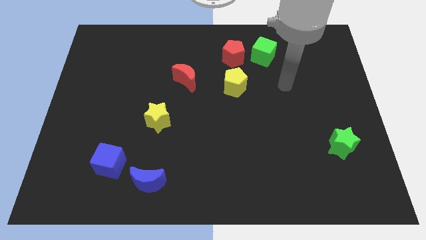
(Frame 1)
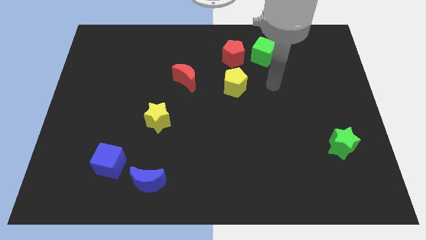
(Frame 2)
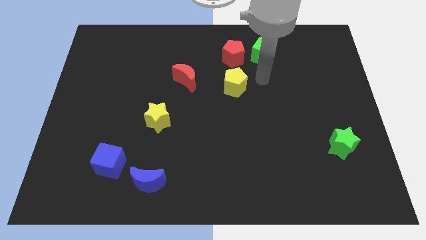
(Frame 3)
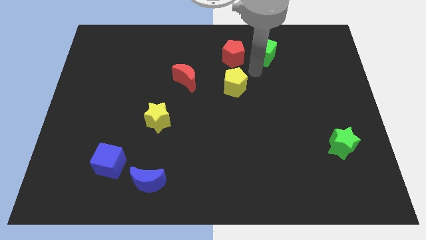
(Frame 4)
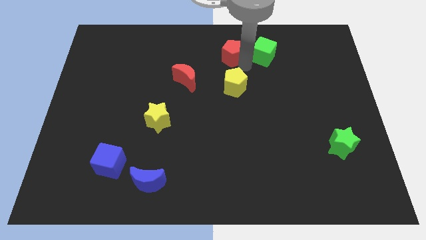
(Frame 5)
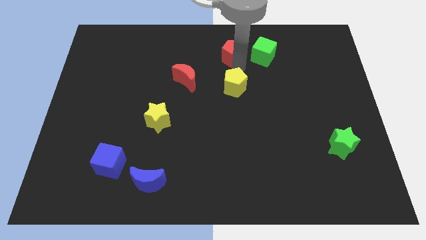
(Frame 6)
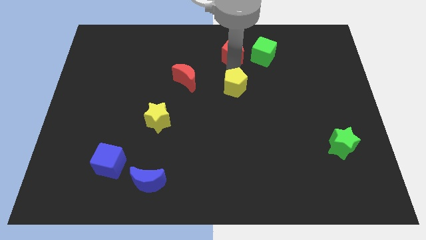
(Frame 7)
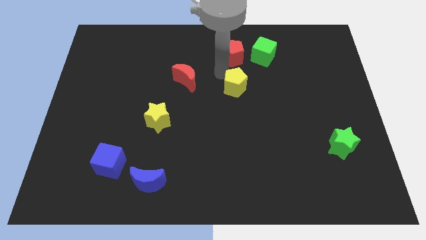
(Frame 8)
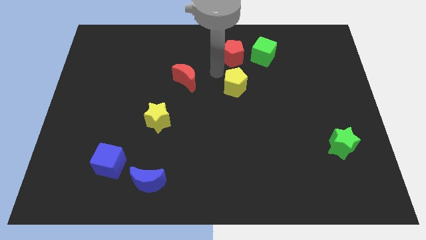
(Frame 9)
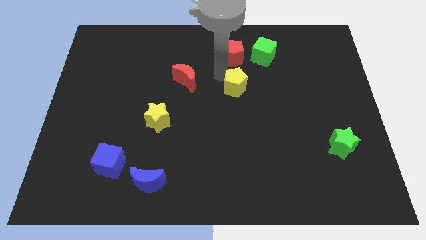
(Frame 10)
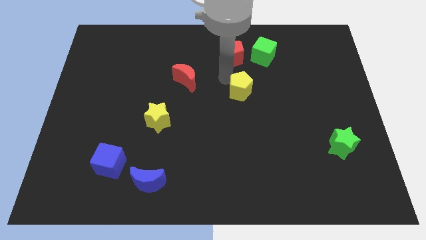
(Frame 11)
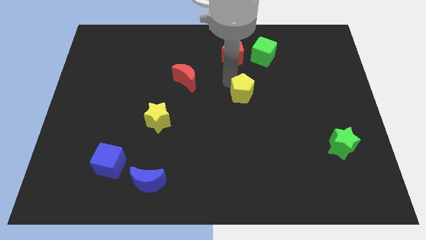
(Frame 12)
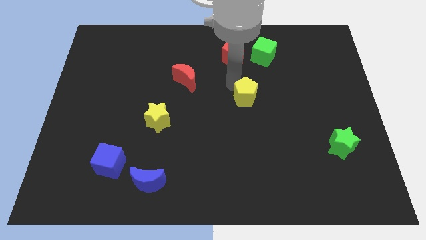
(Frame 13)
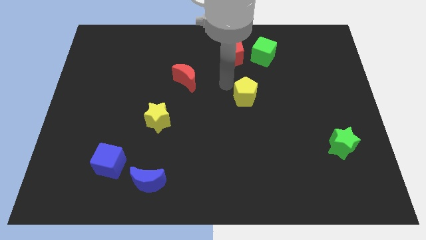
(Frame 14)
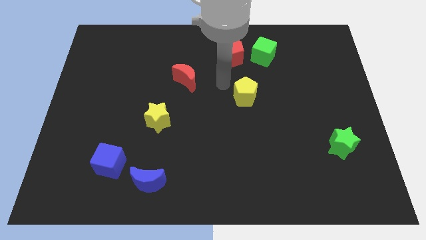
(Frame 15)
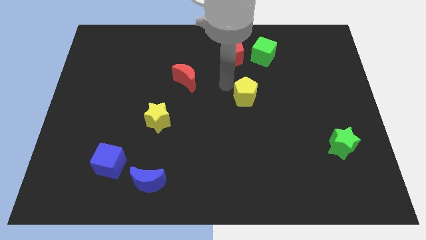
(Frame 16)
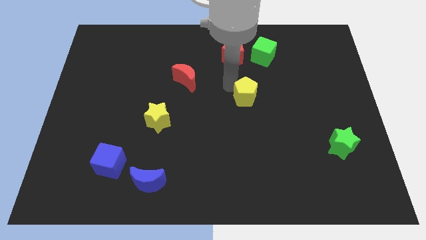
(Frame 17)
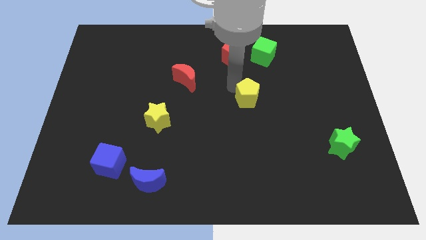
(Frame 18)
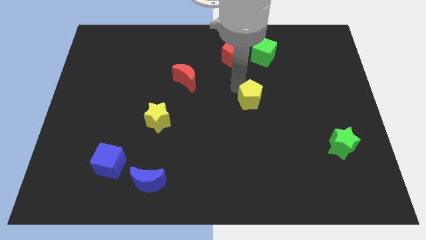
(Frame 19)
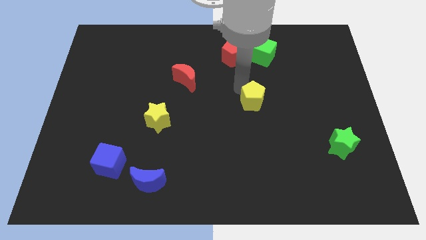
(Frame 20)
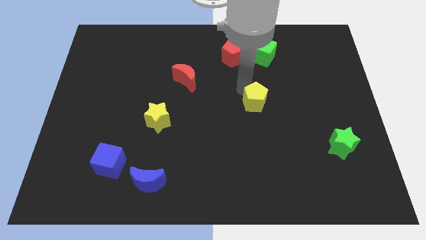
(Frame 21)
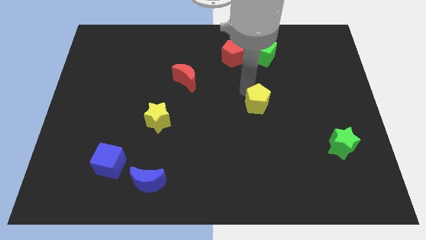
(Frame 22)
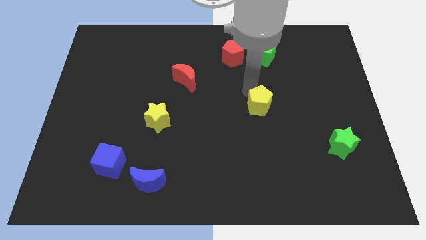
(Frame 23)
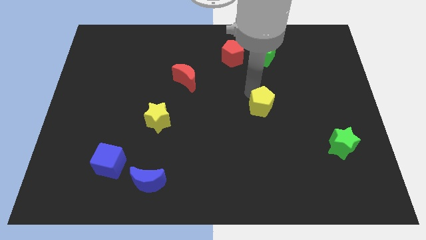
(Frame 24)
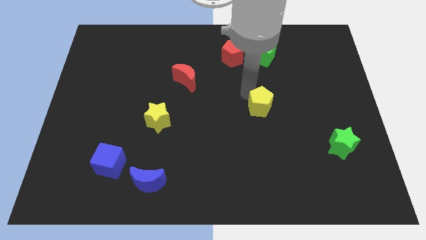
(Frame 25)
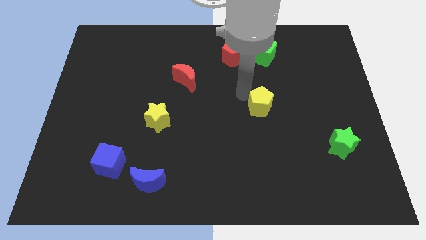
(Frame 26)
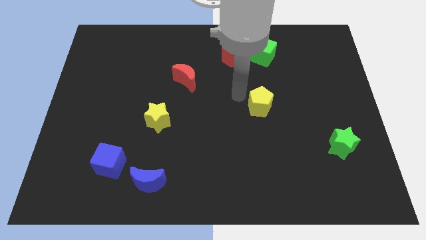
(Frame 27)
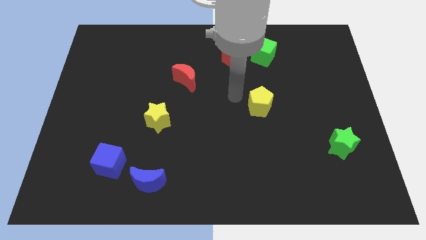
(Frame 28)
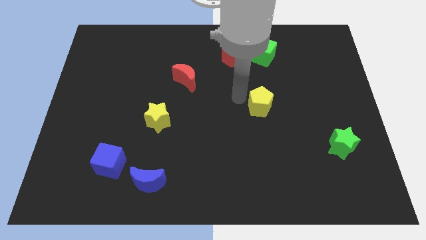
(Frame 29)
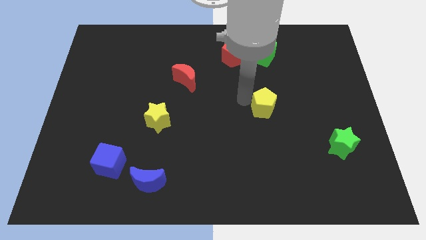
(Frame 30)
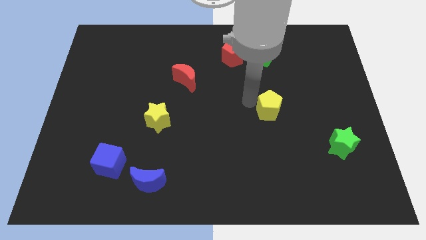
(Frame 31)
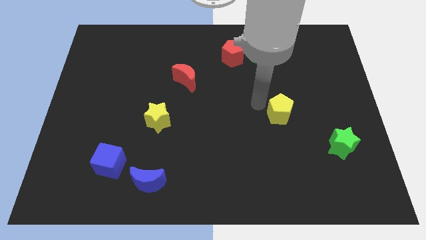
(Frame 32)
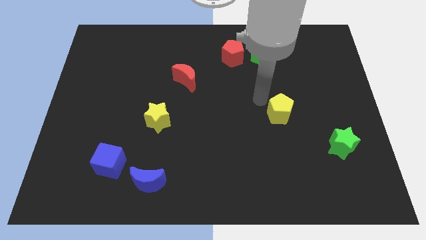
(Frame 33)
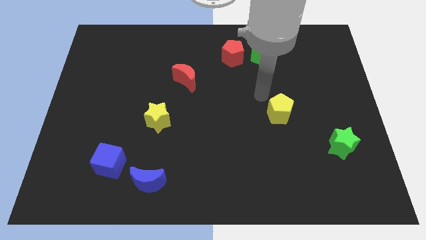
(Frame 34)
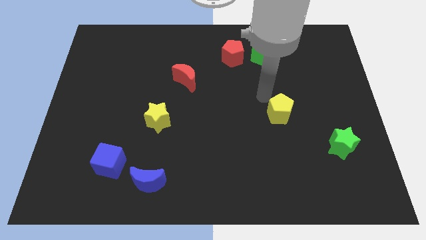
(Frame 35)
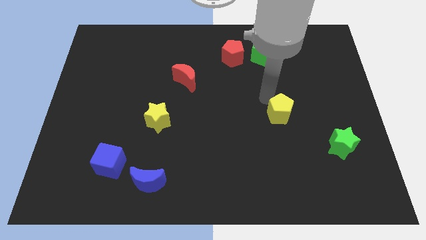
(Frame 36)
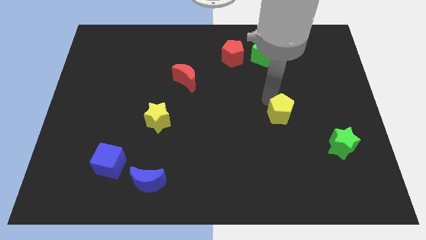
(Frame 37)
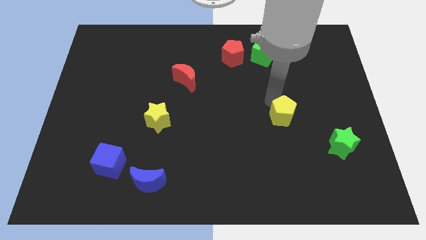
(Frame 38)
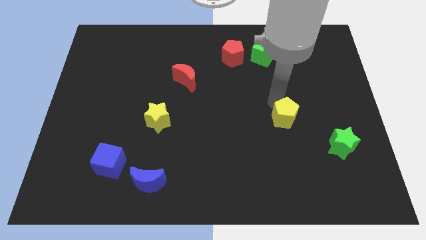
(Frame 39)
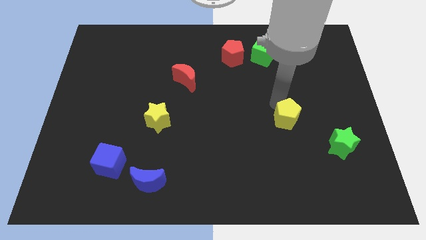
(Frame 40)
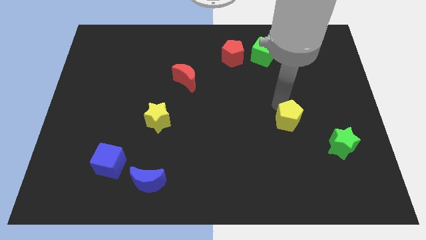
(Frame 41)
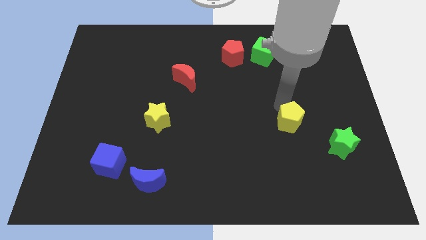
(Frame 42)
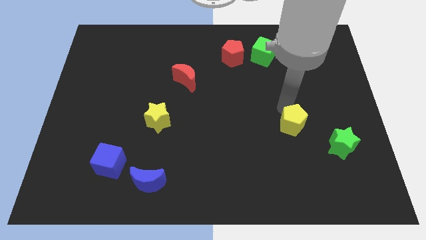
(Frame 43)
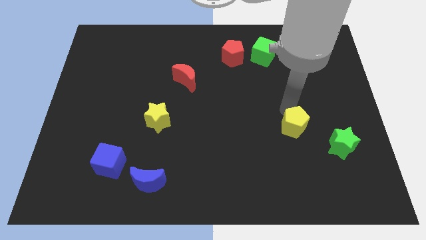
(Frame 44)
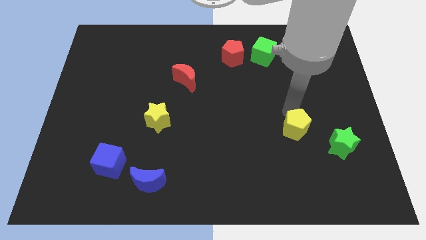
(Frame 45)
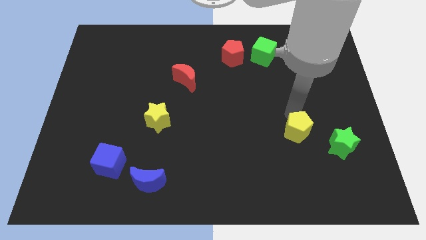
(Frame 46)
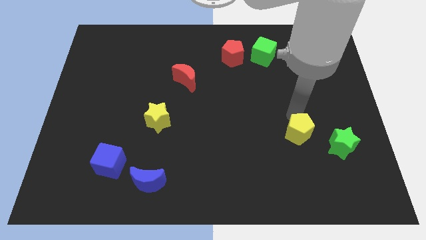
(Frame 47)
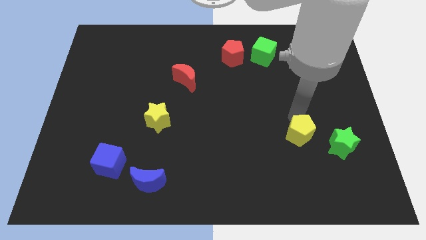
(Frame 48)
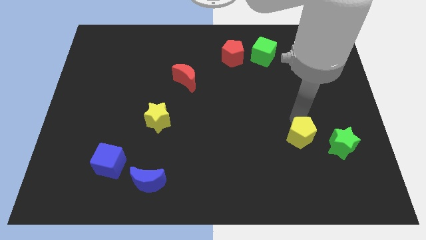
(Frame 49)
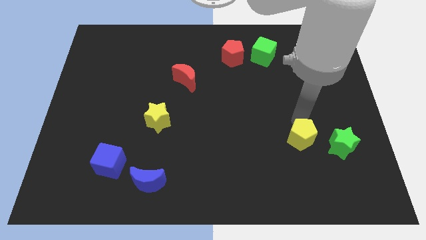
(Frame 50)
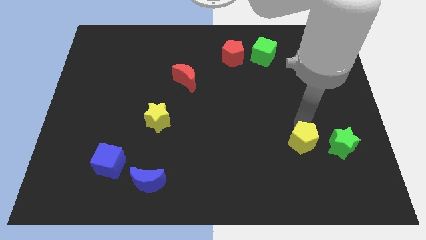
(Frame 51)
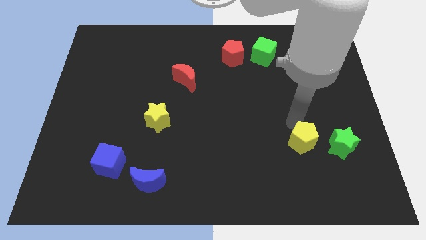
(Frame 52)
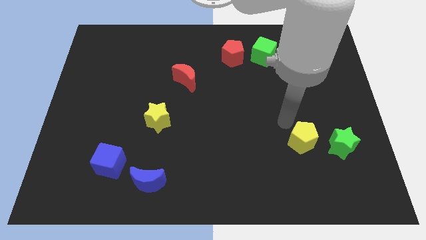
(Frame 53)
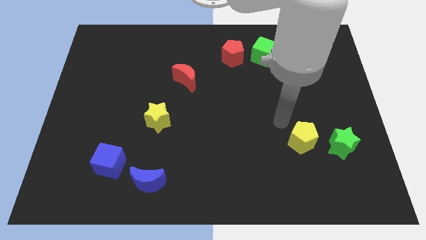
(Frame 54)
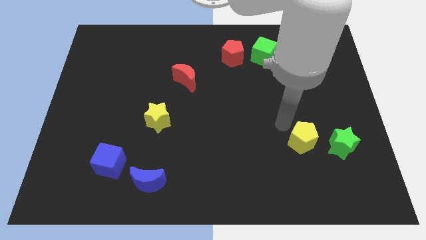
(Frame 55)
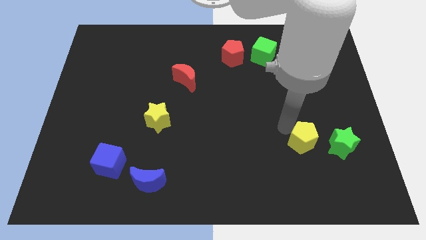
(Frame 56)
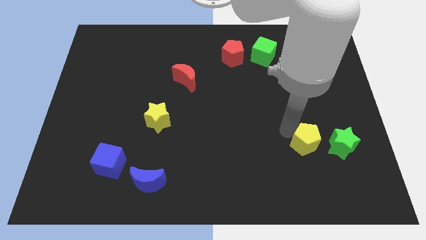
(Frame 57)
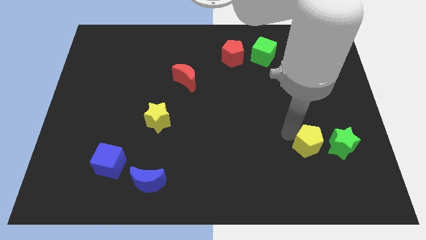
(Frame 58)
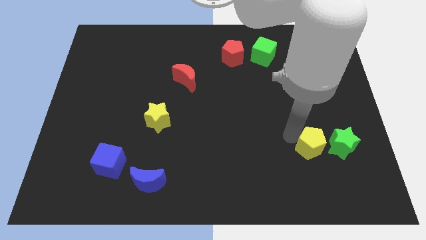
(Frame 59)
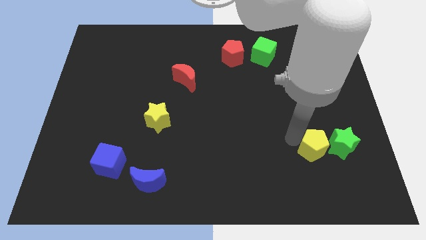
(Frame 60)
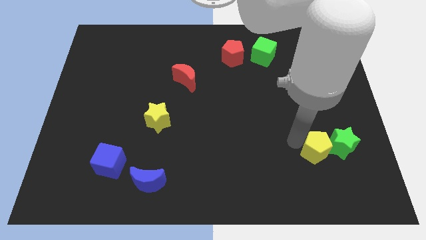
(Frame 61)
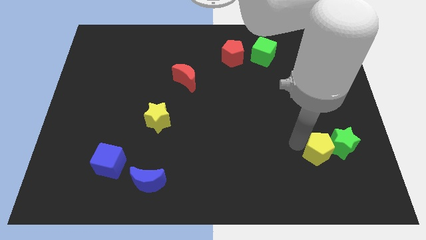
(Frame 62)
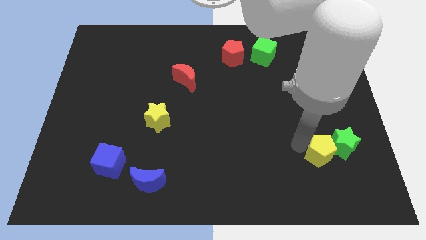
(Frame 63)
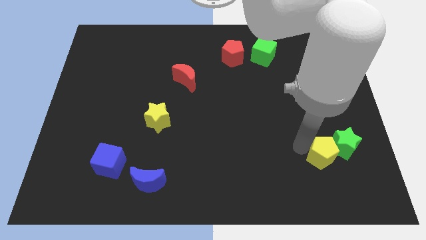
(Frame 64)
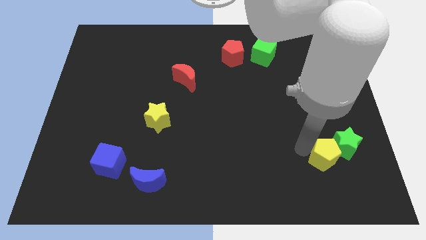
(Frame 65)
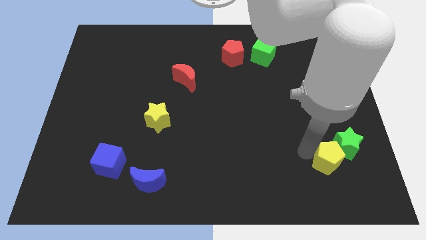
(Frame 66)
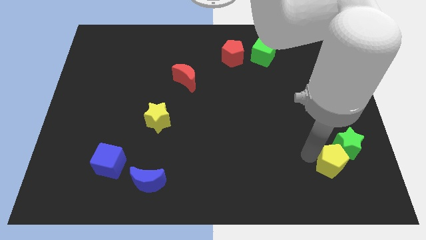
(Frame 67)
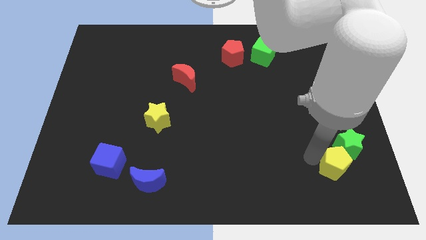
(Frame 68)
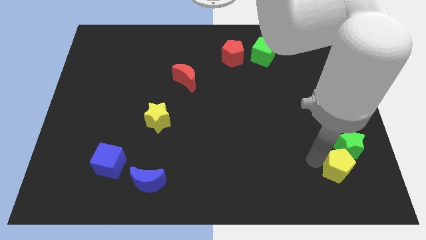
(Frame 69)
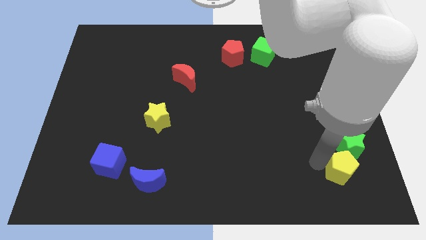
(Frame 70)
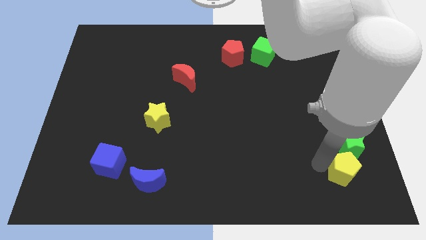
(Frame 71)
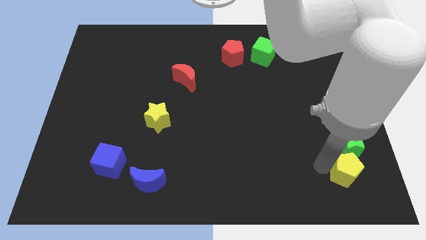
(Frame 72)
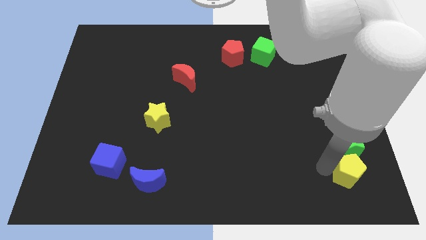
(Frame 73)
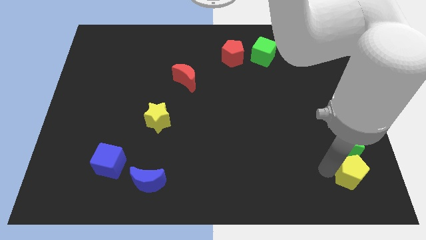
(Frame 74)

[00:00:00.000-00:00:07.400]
move the yellow pentagon to the bottom right of the board
